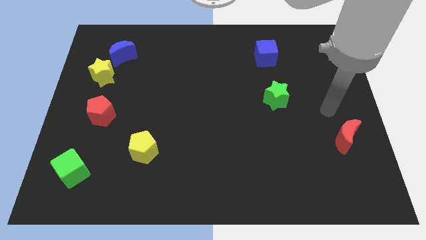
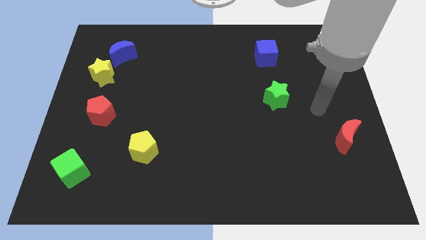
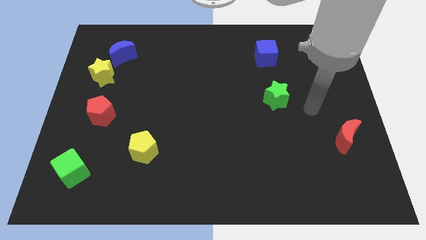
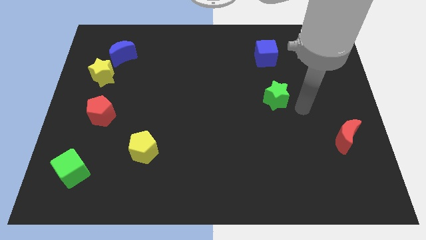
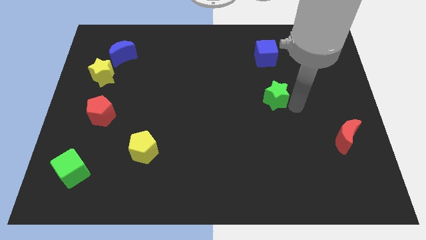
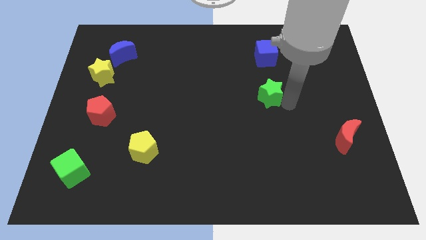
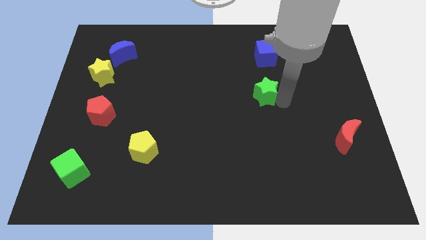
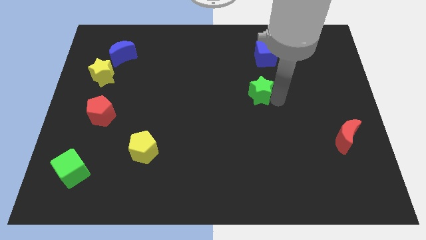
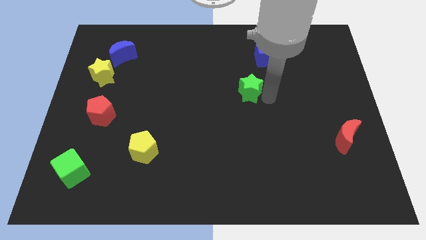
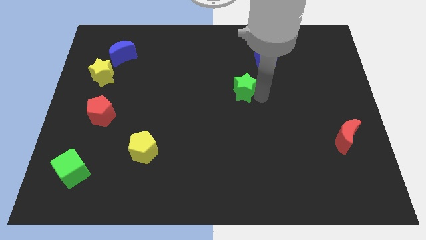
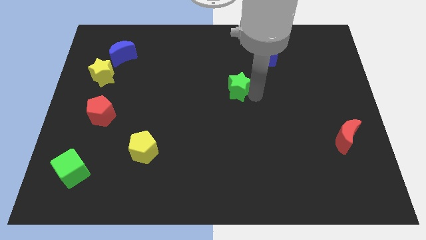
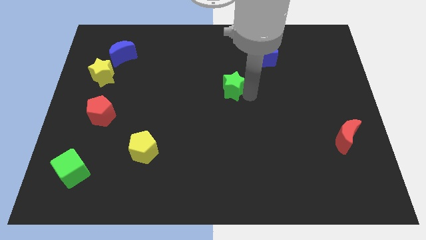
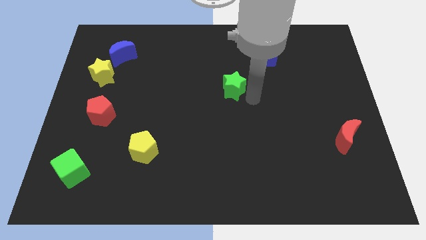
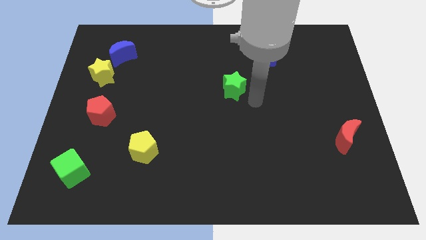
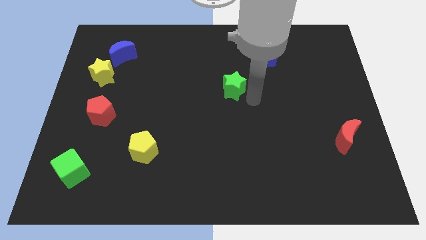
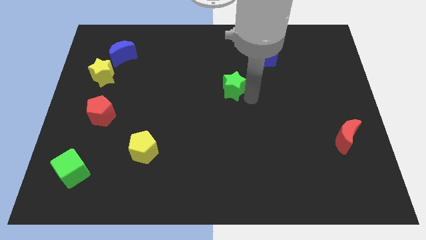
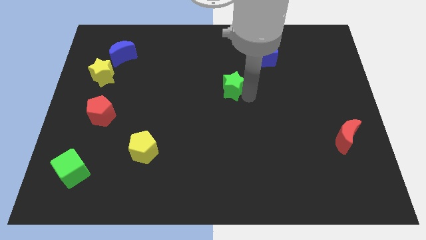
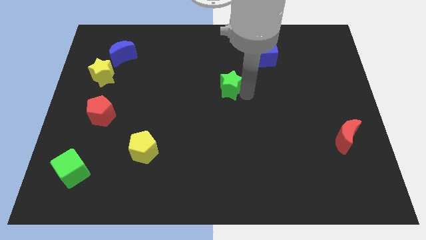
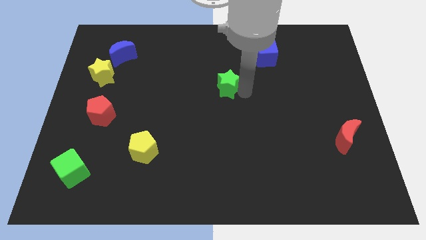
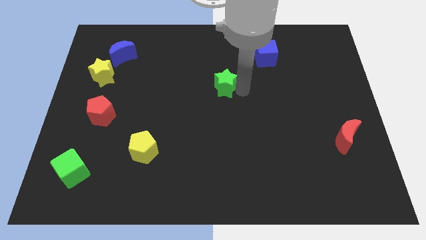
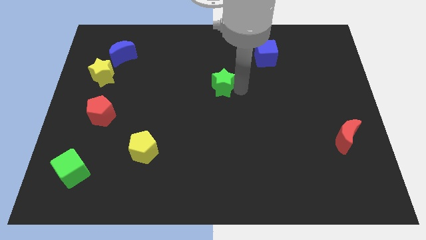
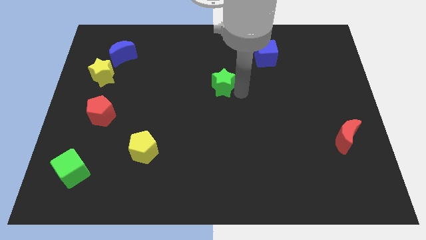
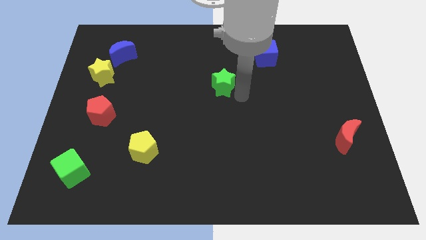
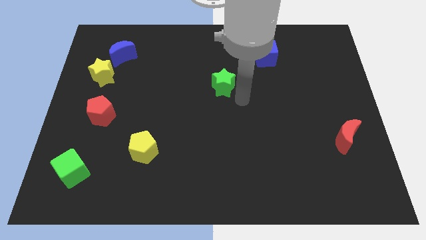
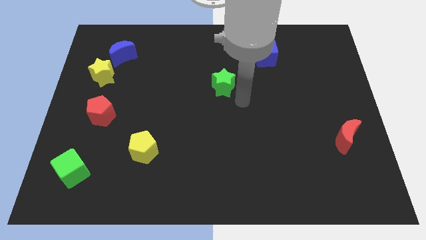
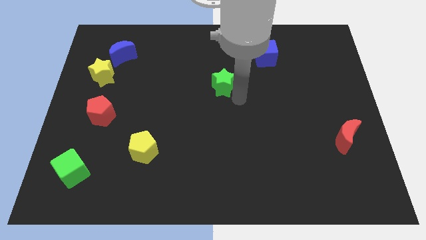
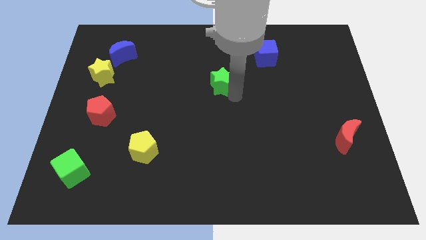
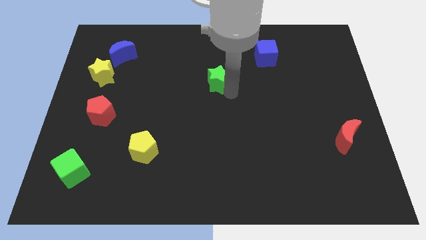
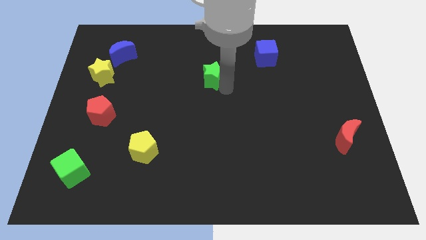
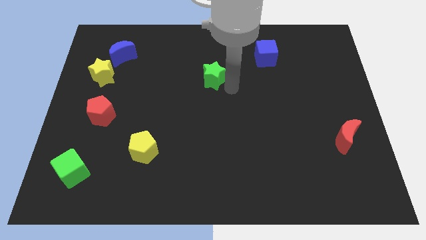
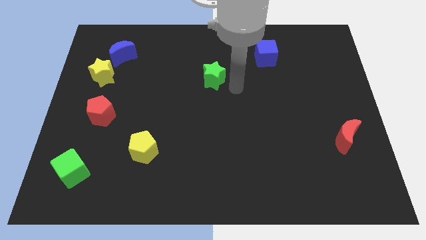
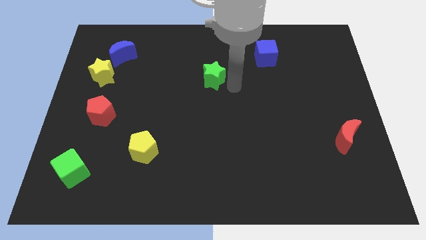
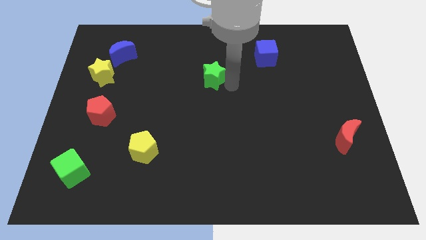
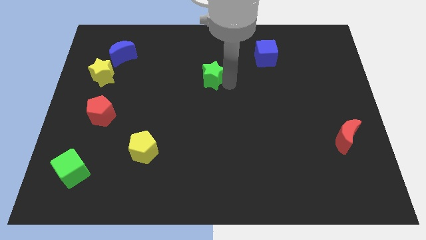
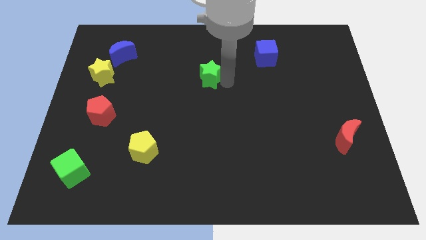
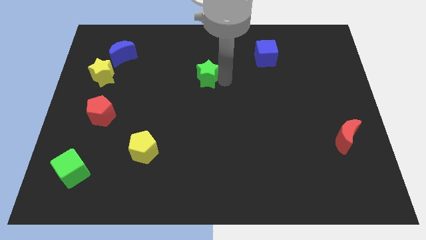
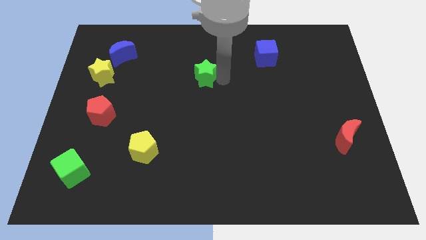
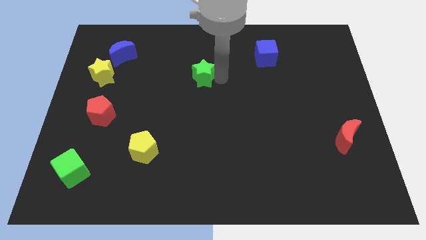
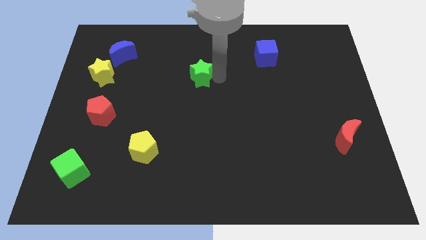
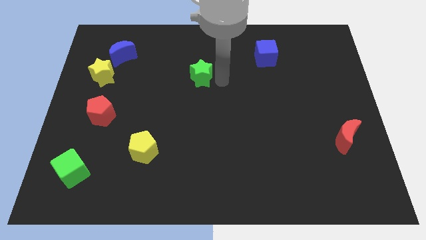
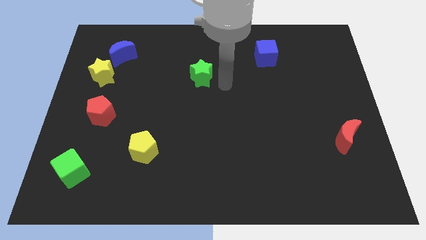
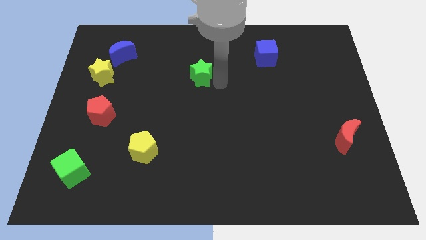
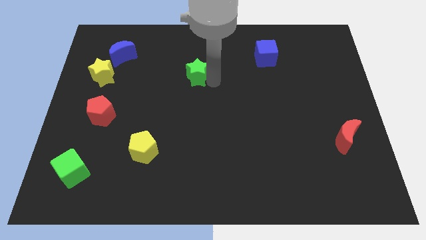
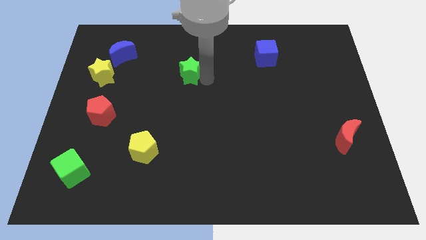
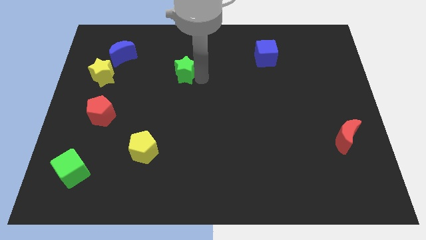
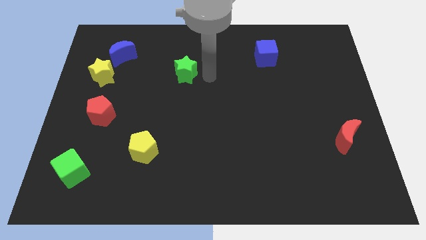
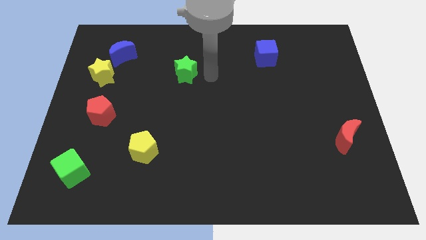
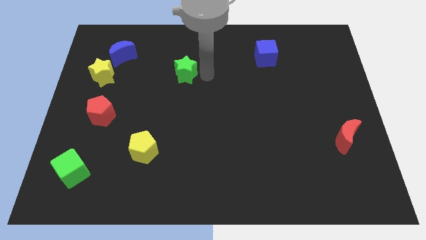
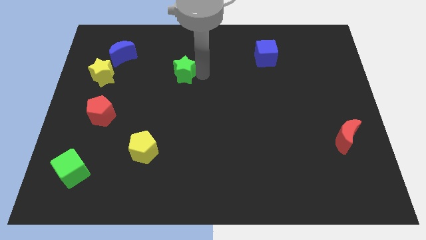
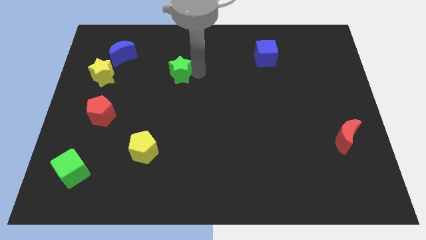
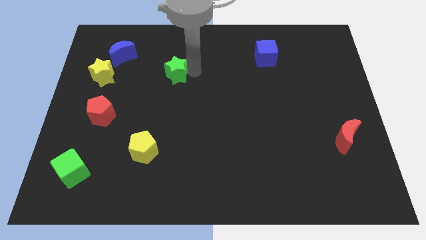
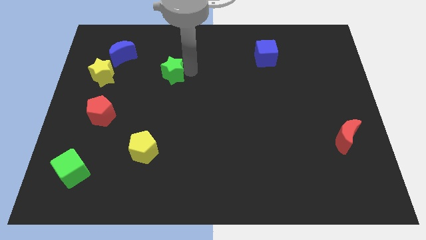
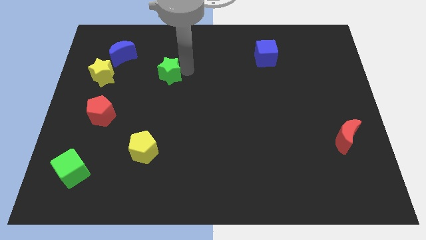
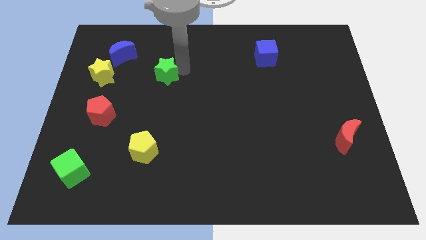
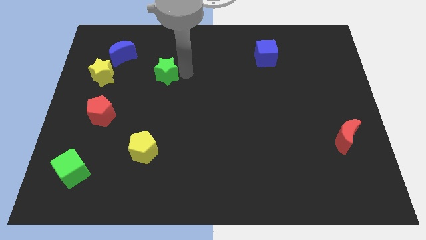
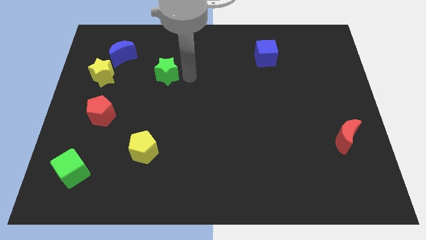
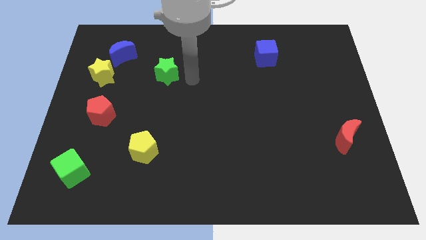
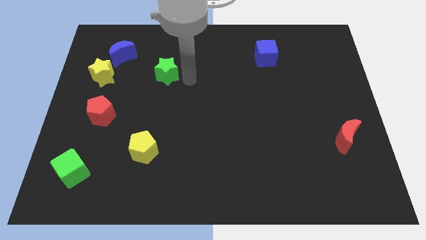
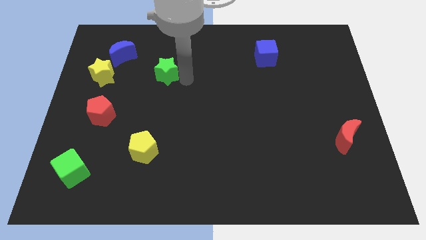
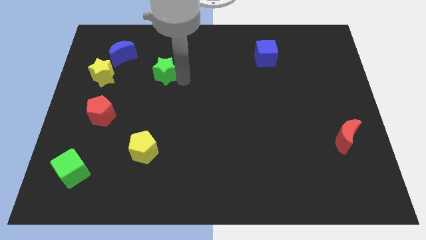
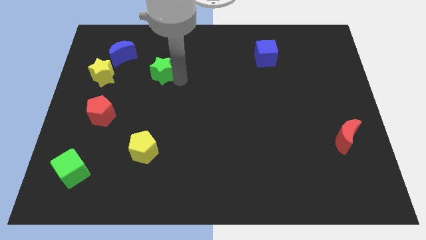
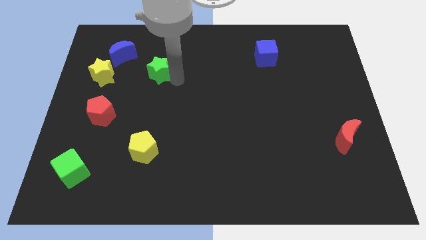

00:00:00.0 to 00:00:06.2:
put the green star to the bottom right side of the blue moon

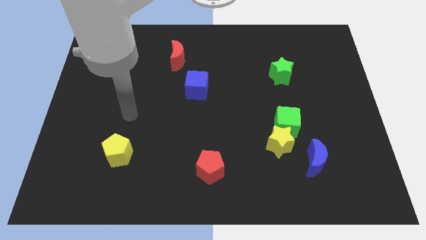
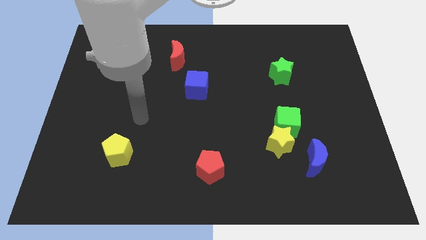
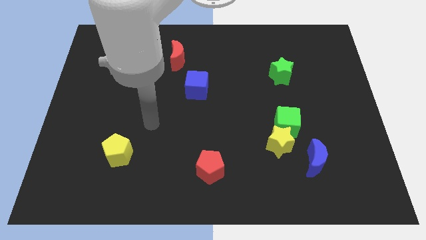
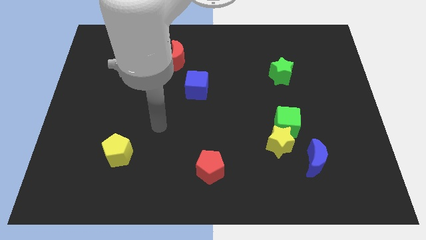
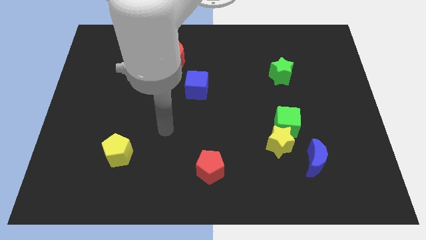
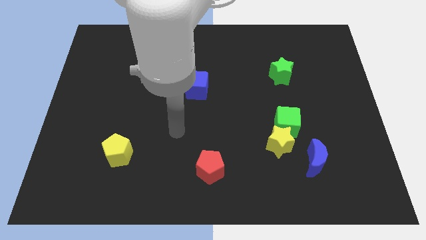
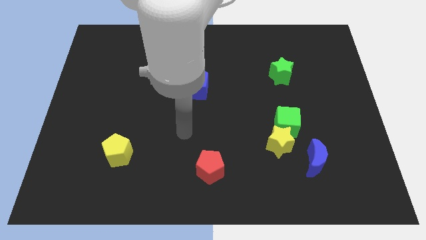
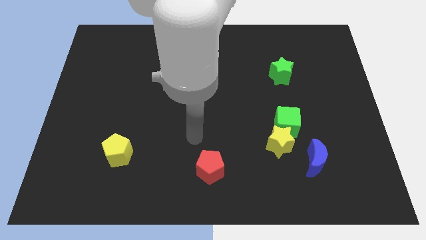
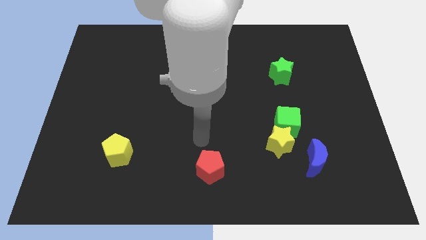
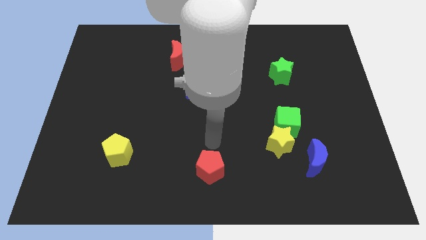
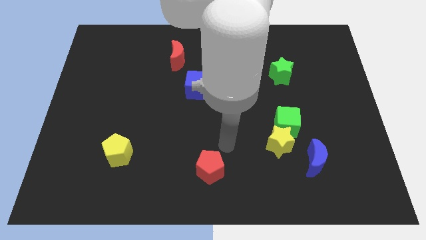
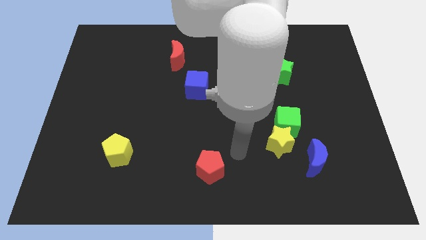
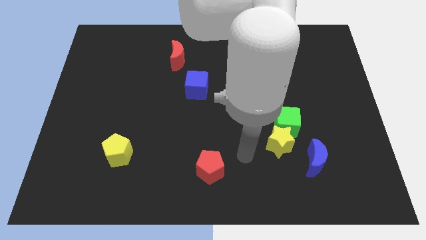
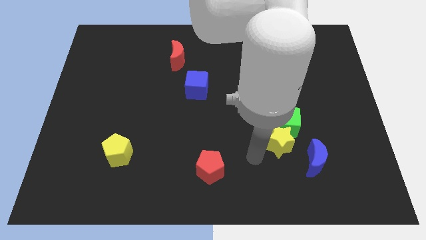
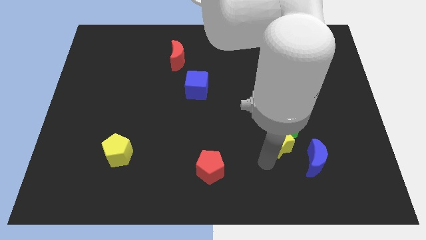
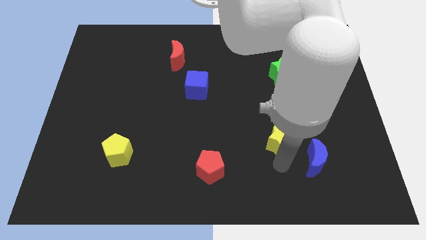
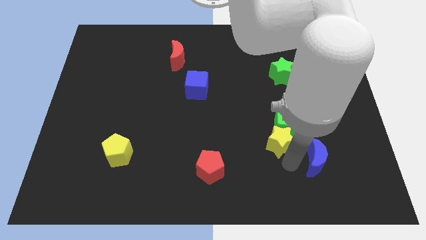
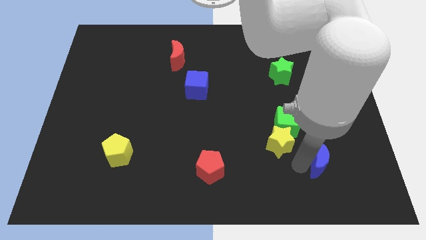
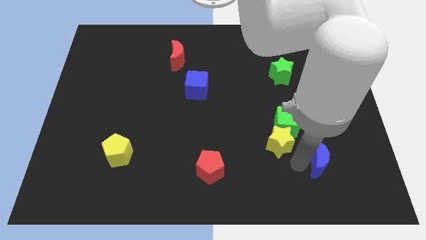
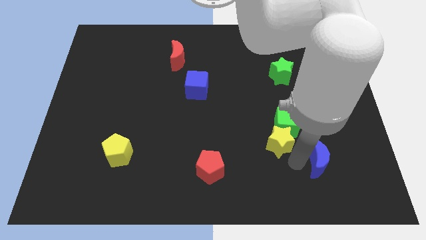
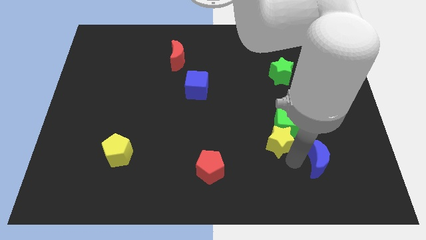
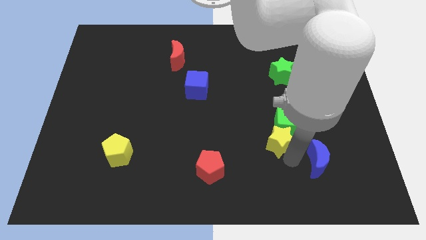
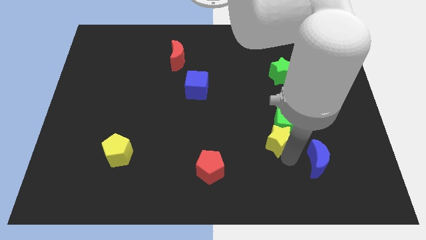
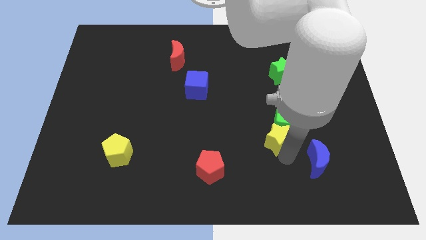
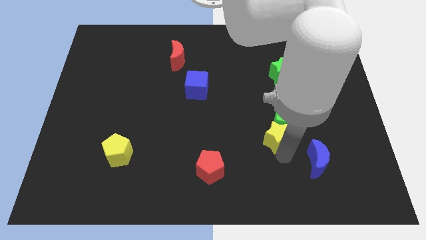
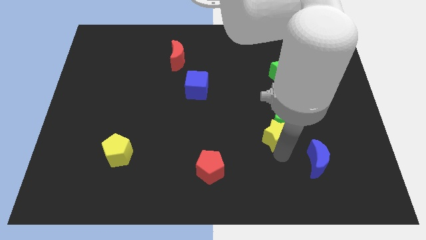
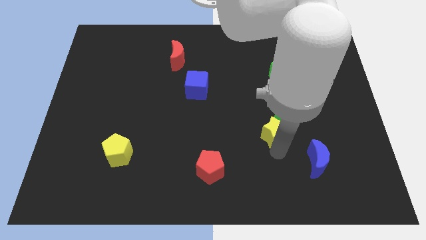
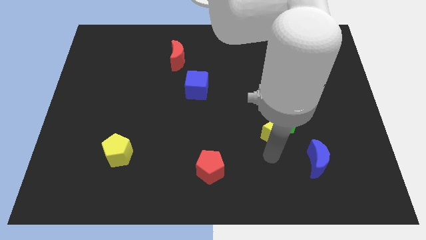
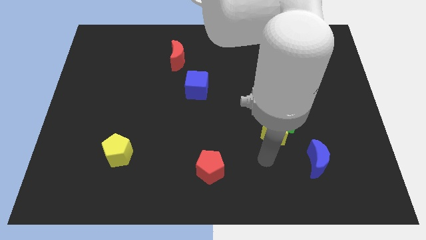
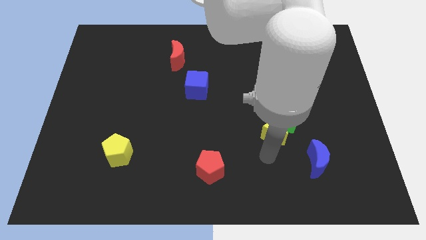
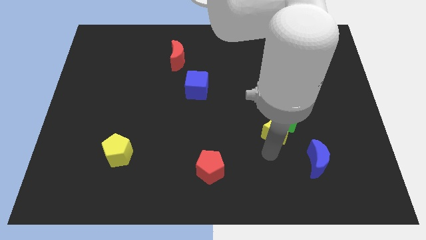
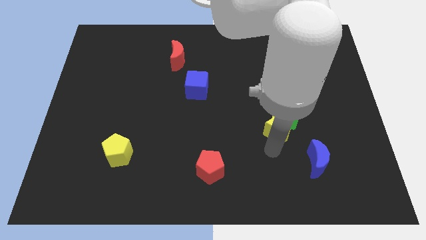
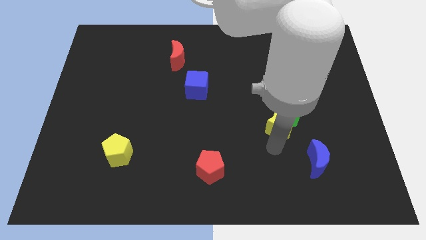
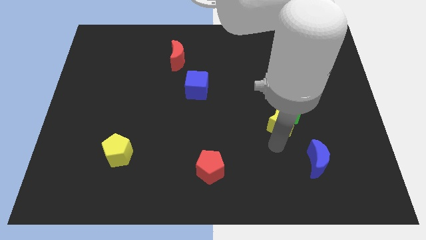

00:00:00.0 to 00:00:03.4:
move the yellow star below the green star
